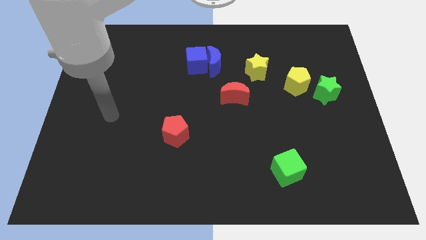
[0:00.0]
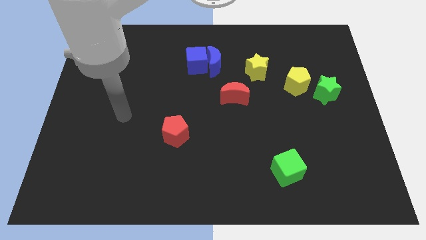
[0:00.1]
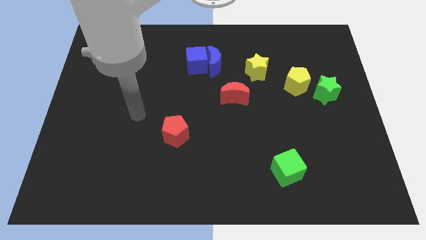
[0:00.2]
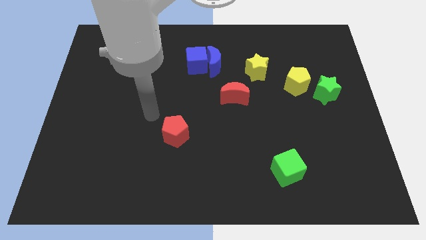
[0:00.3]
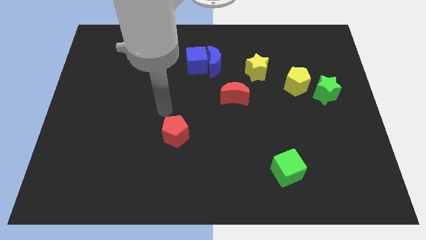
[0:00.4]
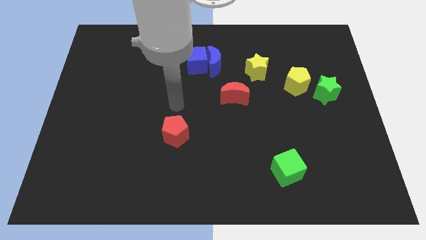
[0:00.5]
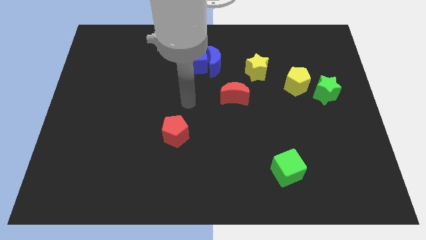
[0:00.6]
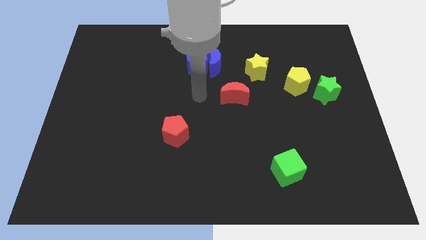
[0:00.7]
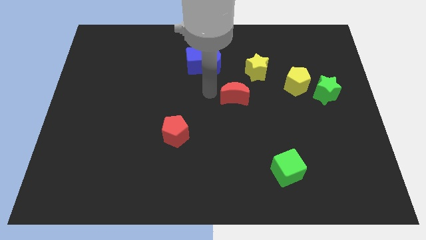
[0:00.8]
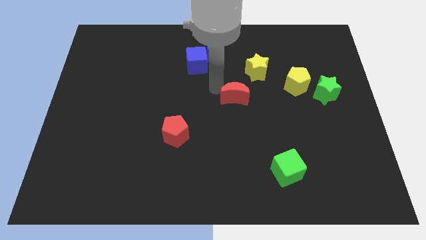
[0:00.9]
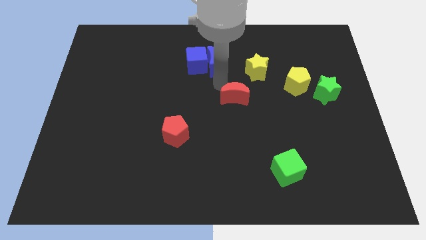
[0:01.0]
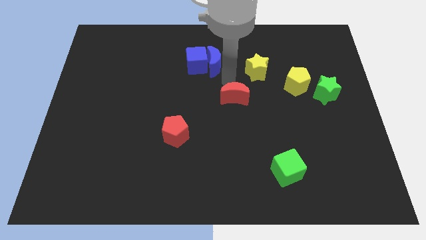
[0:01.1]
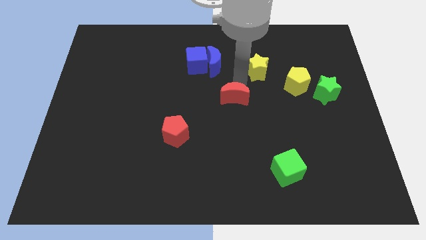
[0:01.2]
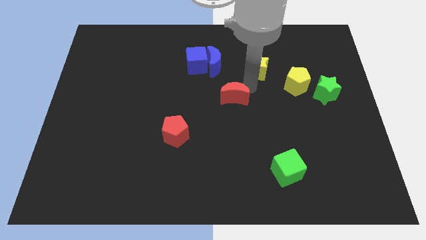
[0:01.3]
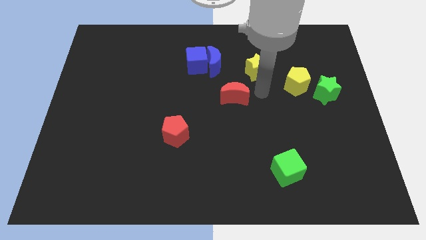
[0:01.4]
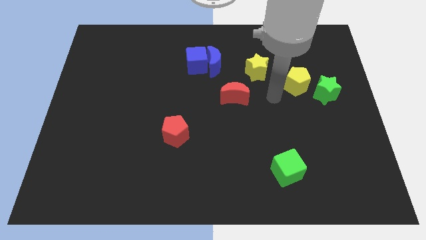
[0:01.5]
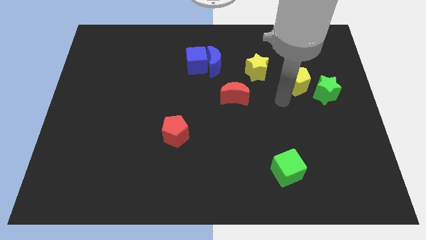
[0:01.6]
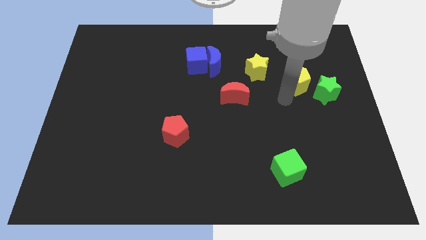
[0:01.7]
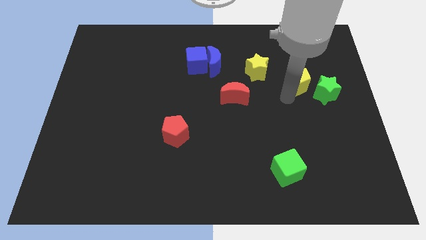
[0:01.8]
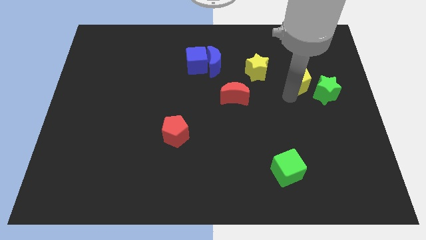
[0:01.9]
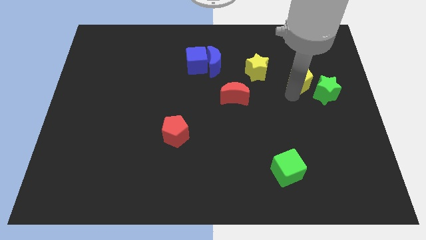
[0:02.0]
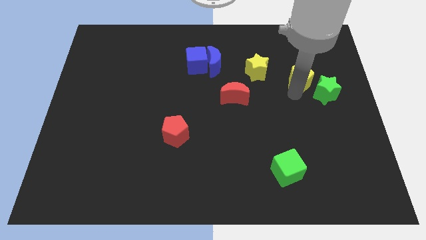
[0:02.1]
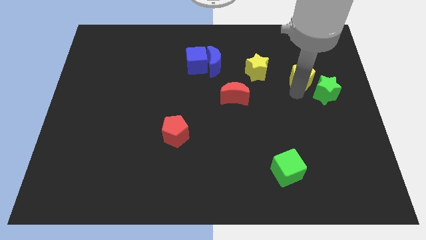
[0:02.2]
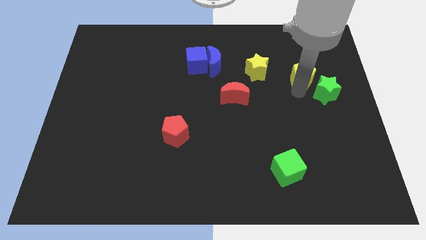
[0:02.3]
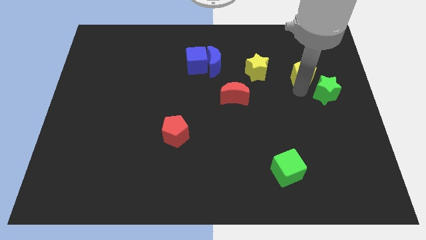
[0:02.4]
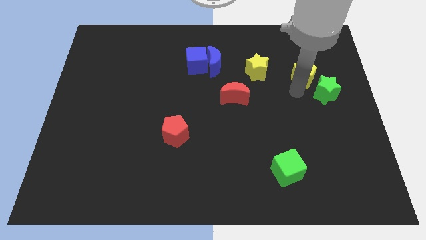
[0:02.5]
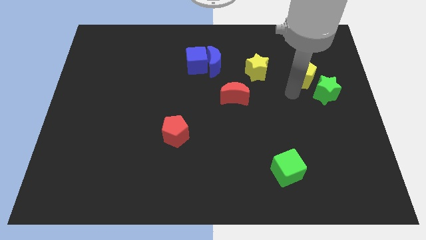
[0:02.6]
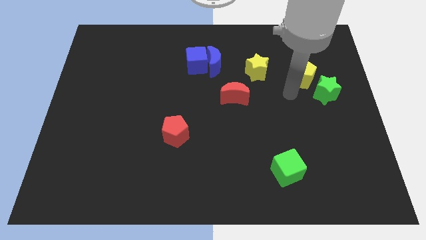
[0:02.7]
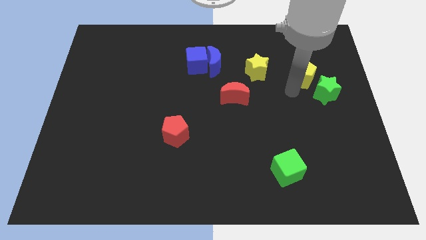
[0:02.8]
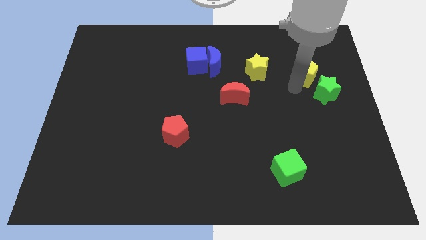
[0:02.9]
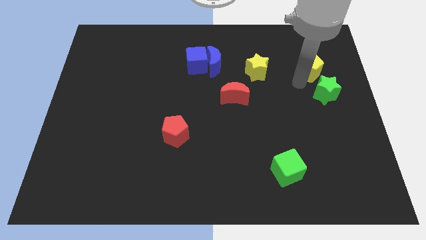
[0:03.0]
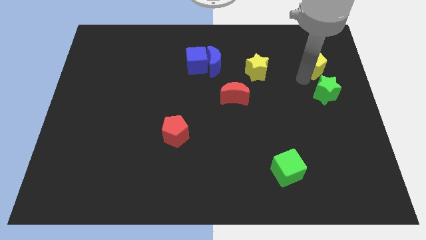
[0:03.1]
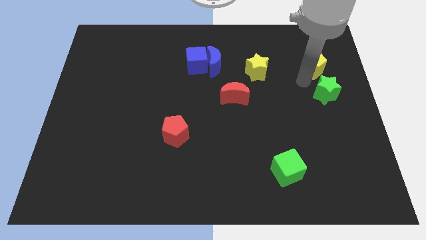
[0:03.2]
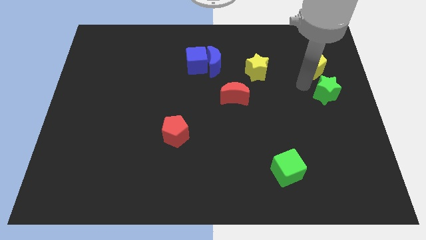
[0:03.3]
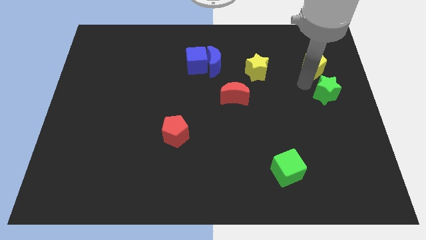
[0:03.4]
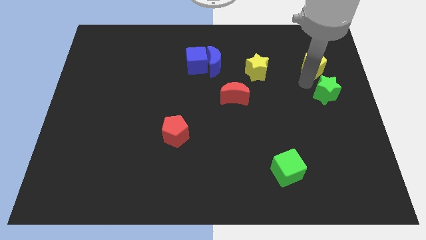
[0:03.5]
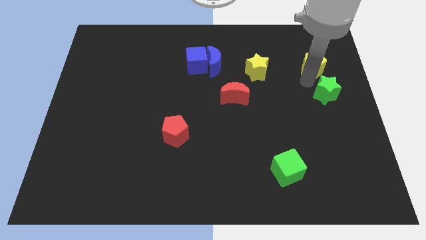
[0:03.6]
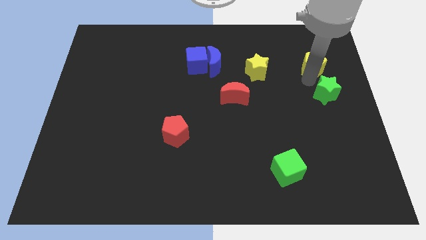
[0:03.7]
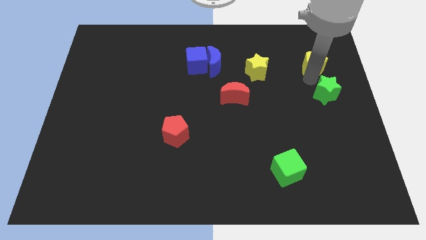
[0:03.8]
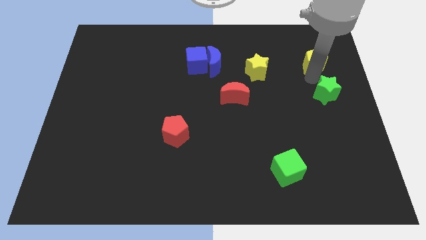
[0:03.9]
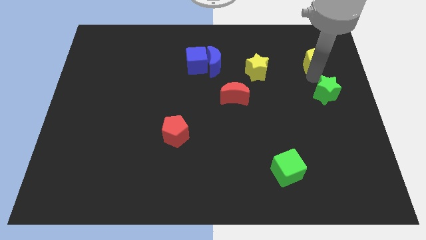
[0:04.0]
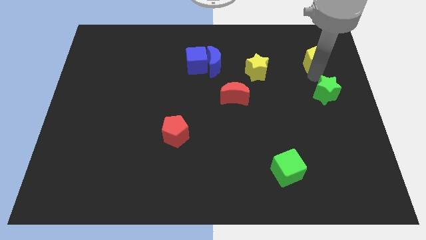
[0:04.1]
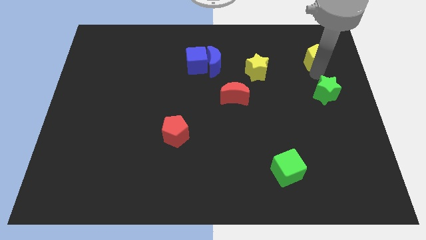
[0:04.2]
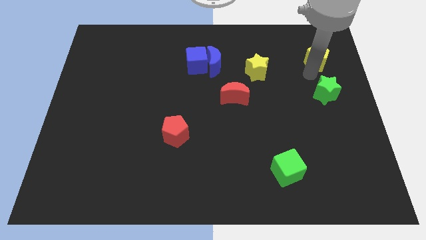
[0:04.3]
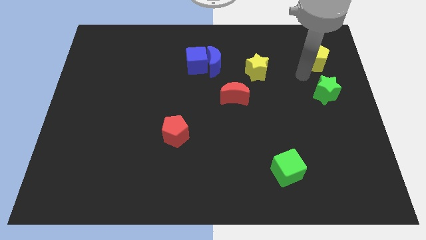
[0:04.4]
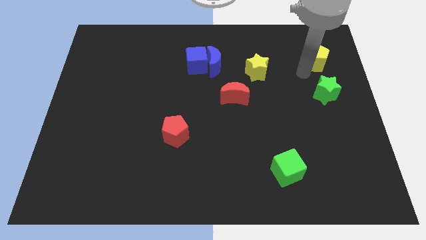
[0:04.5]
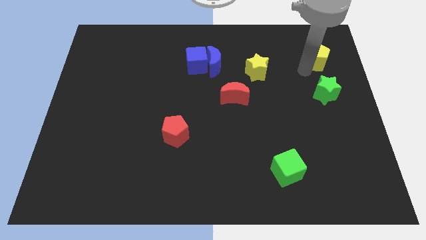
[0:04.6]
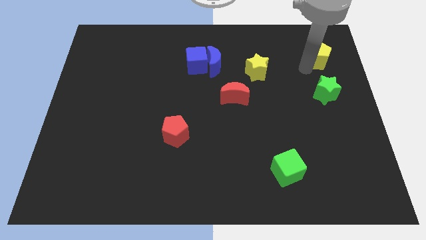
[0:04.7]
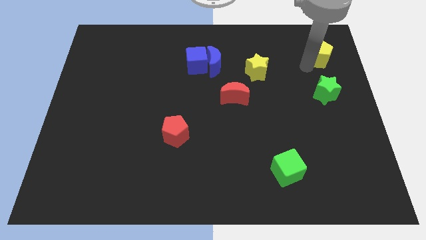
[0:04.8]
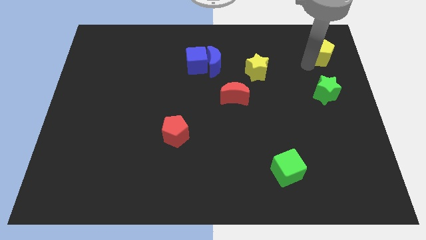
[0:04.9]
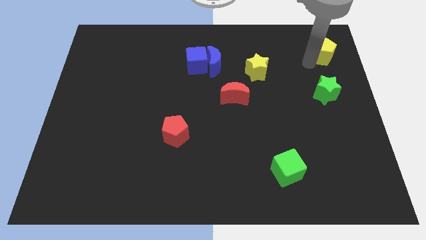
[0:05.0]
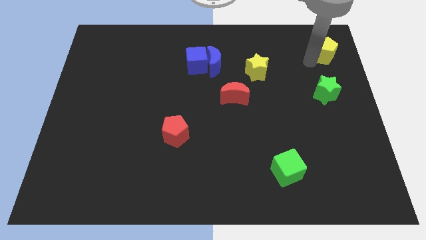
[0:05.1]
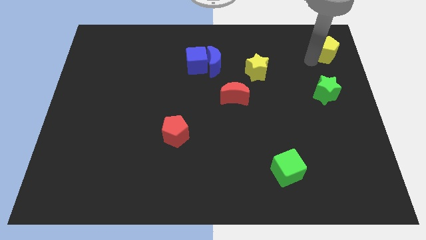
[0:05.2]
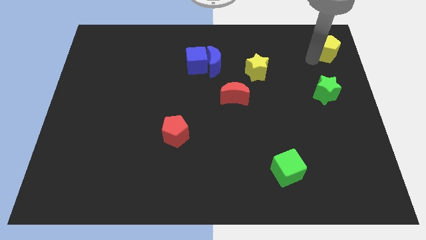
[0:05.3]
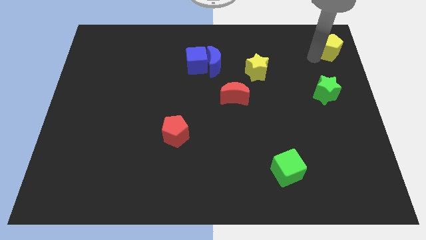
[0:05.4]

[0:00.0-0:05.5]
slide the yellow pentagon to the top right of the board
